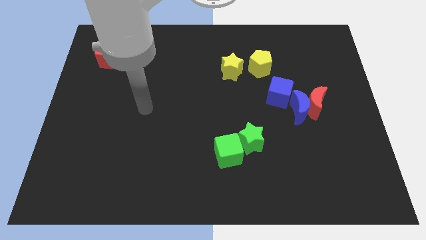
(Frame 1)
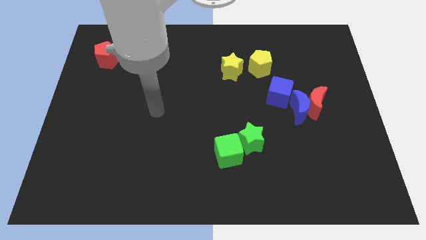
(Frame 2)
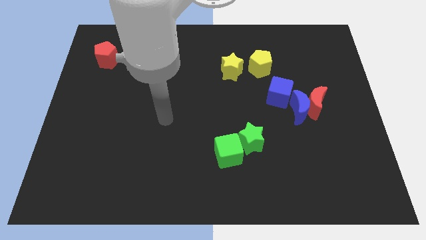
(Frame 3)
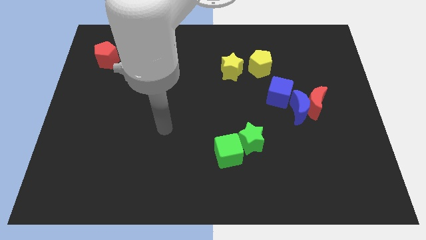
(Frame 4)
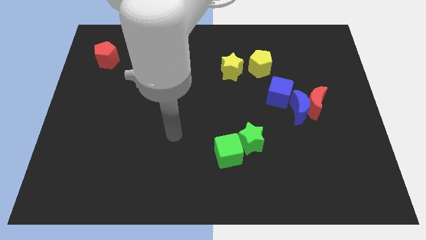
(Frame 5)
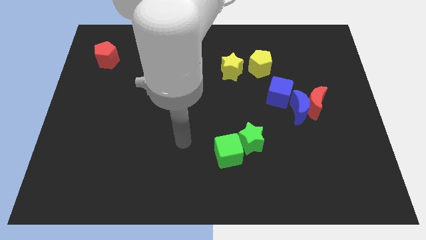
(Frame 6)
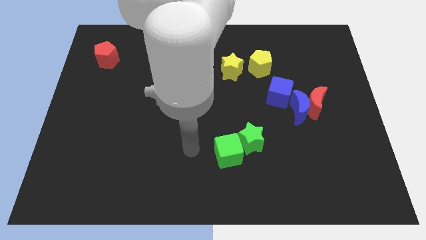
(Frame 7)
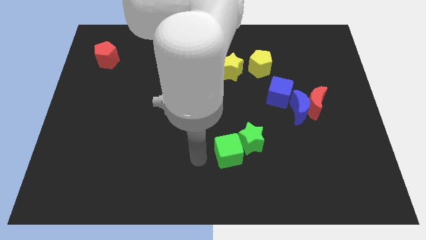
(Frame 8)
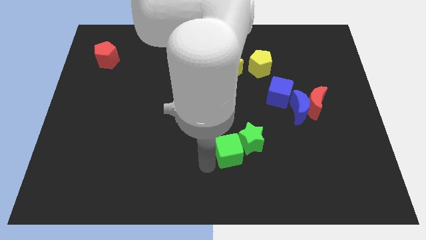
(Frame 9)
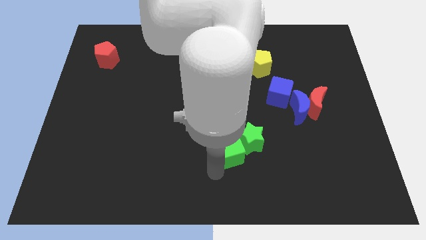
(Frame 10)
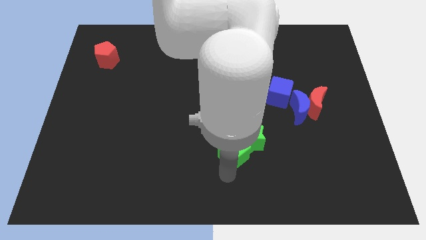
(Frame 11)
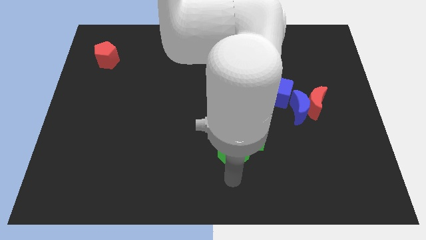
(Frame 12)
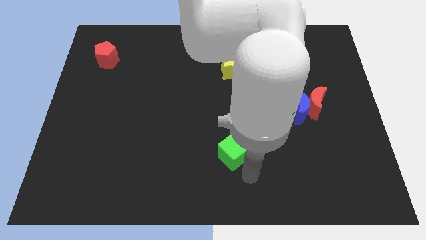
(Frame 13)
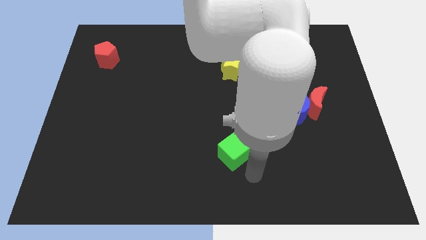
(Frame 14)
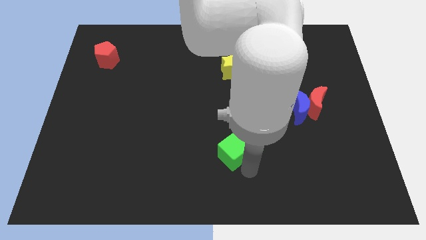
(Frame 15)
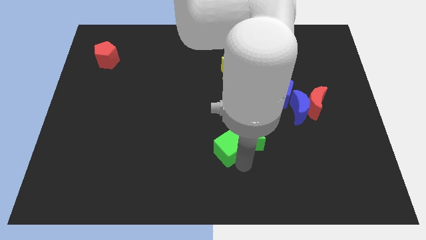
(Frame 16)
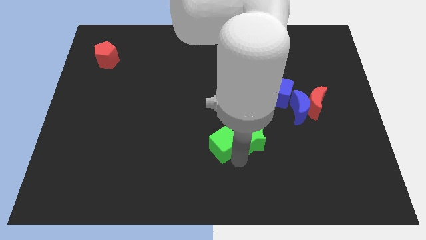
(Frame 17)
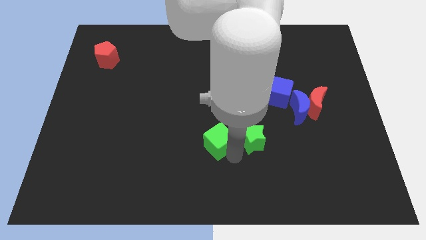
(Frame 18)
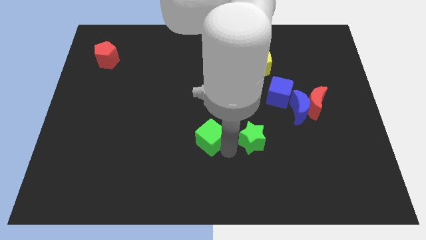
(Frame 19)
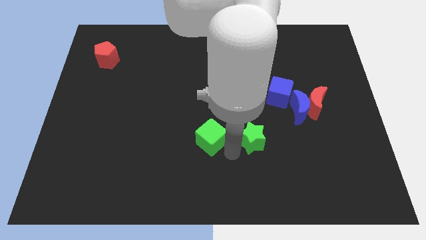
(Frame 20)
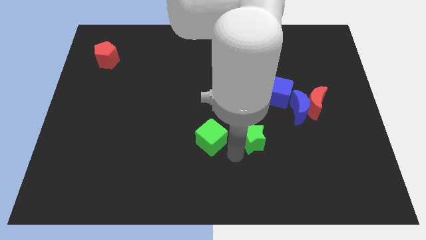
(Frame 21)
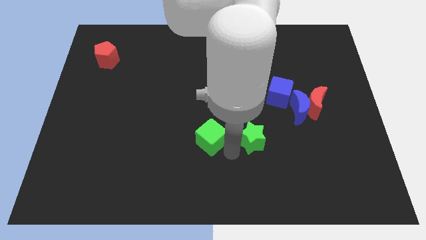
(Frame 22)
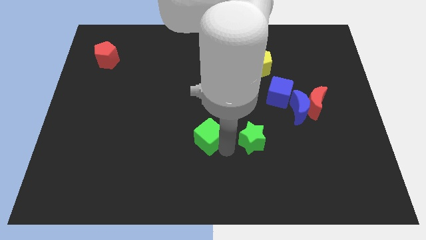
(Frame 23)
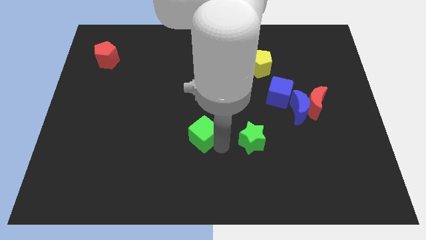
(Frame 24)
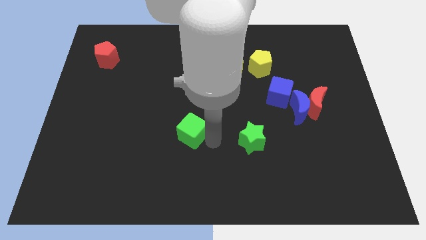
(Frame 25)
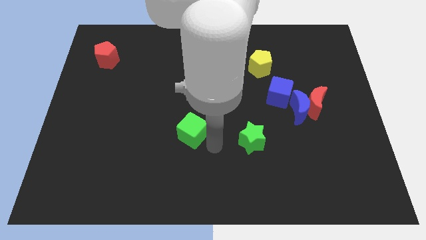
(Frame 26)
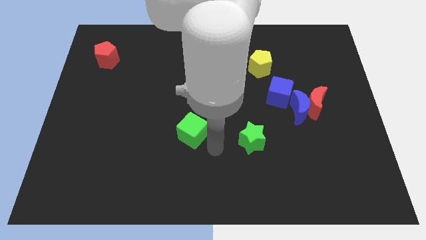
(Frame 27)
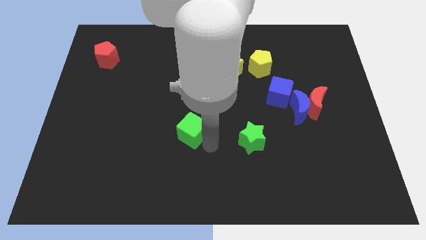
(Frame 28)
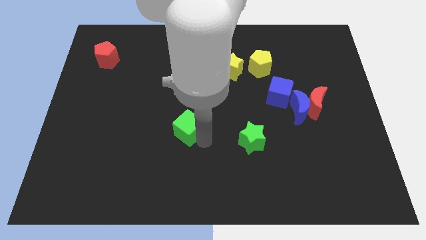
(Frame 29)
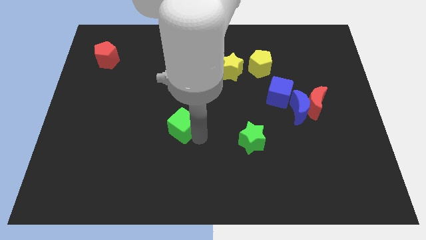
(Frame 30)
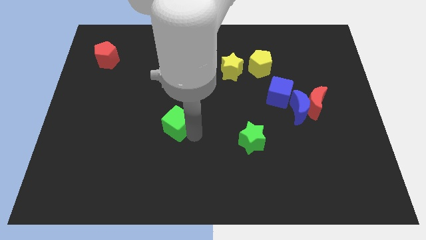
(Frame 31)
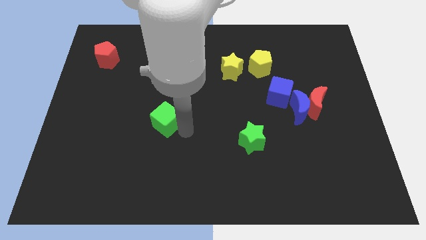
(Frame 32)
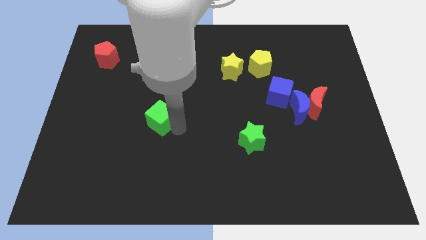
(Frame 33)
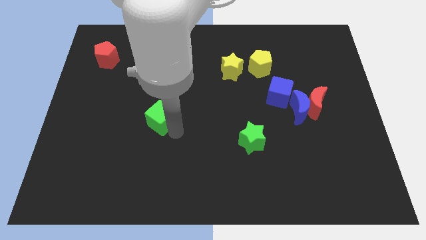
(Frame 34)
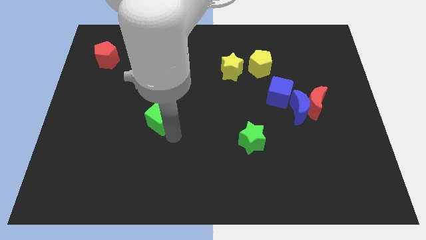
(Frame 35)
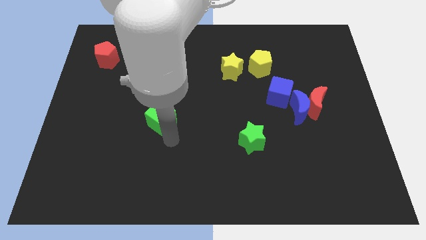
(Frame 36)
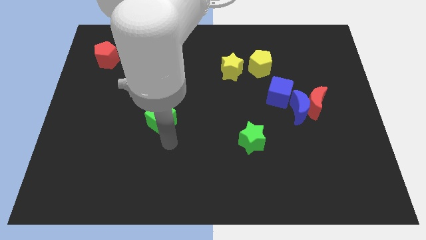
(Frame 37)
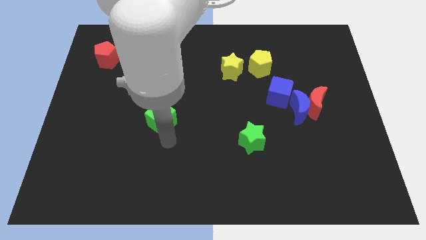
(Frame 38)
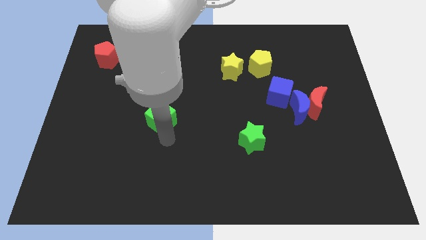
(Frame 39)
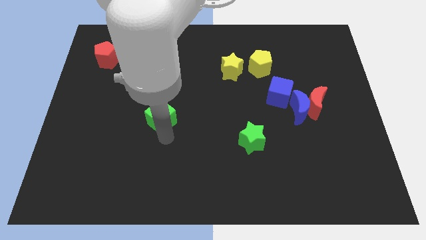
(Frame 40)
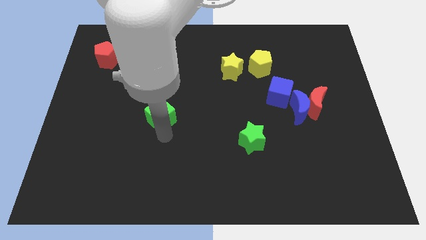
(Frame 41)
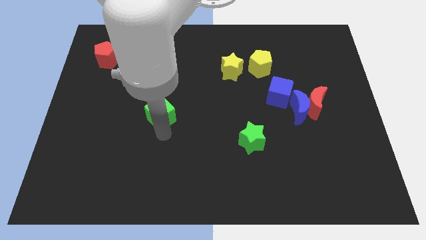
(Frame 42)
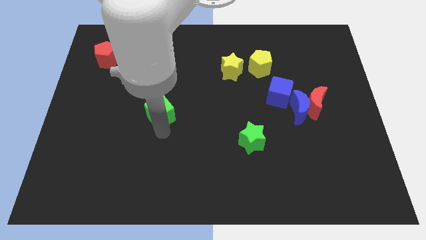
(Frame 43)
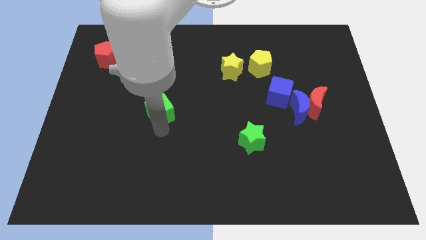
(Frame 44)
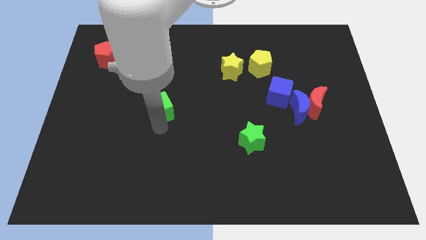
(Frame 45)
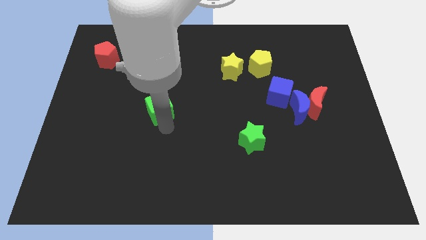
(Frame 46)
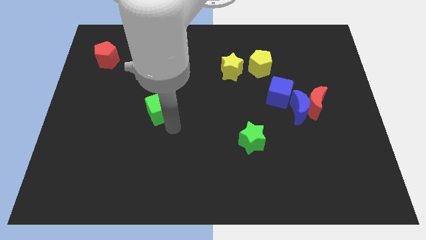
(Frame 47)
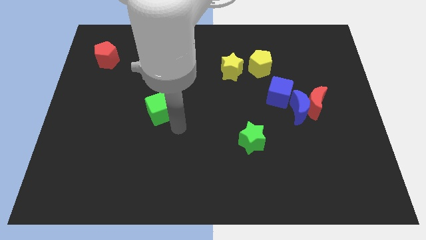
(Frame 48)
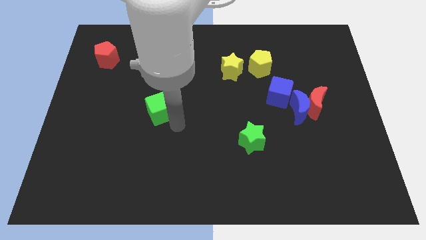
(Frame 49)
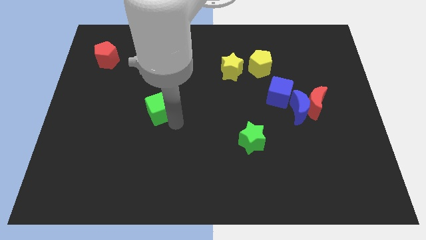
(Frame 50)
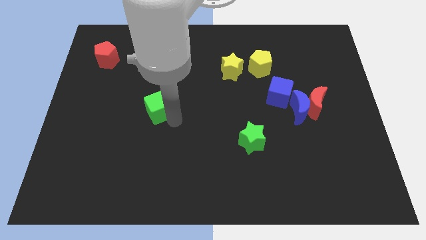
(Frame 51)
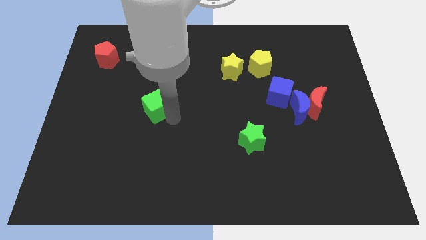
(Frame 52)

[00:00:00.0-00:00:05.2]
move the green cube up and then to the left

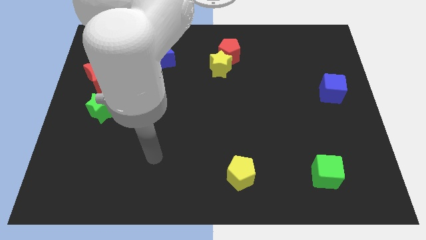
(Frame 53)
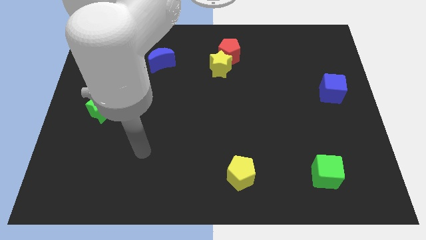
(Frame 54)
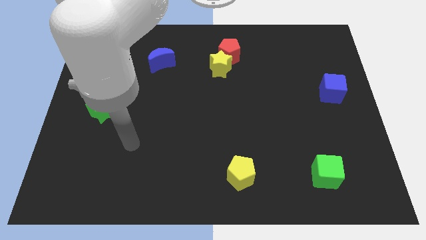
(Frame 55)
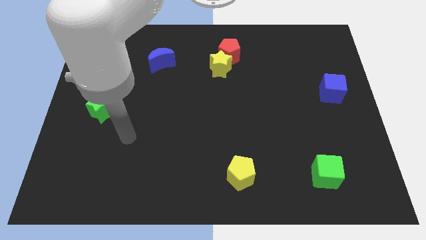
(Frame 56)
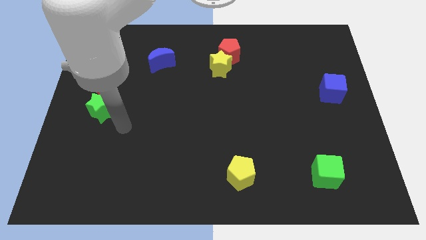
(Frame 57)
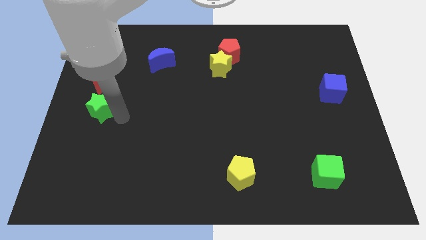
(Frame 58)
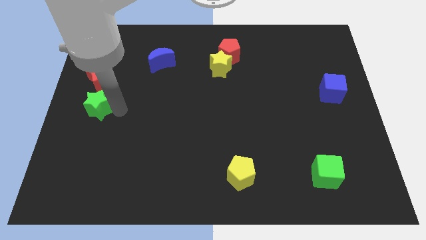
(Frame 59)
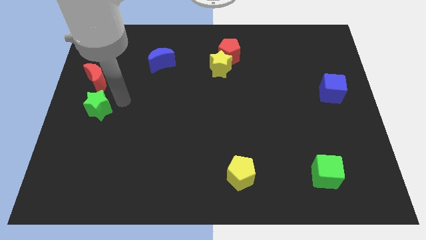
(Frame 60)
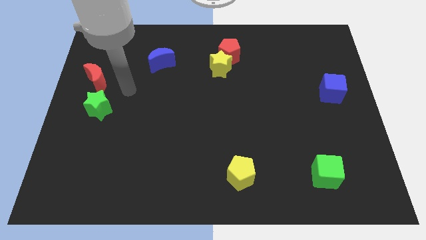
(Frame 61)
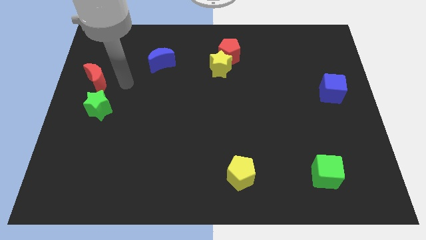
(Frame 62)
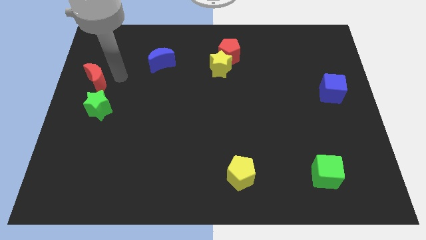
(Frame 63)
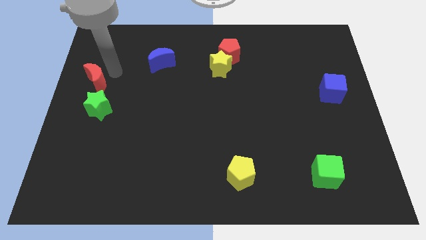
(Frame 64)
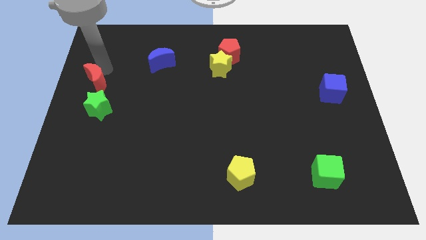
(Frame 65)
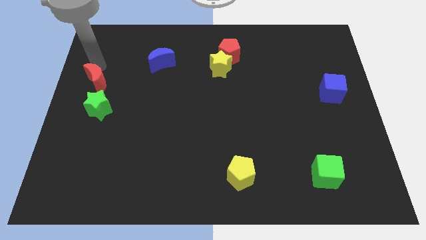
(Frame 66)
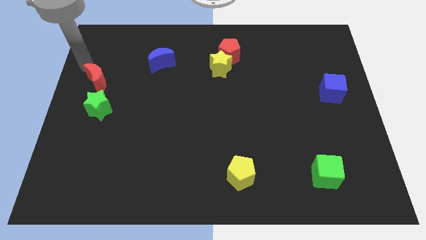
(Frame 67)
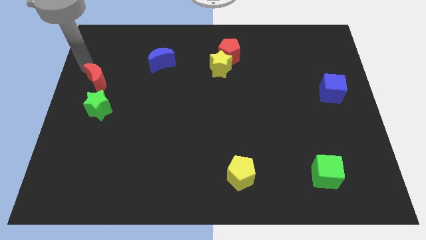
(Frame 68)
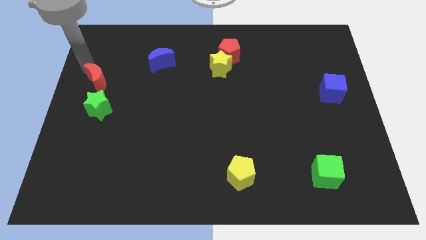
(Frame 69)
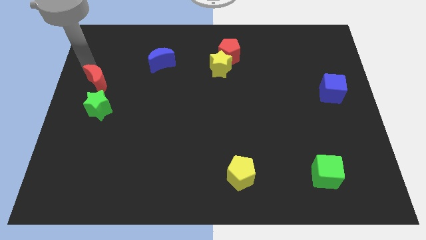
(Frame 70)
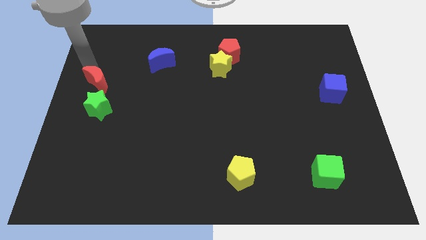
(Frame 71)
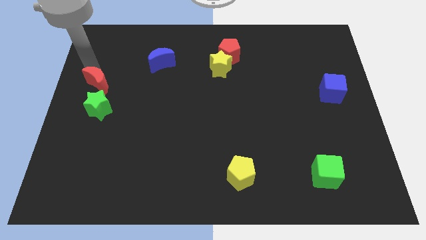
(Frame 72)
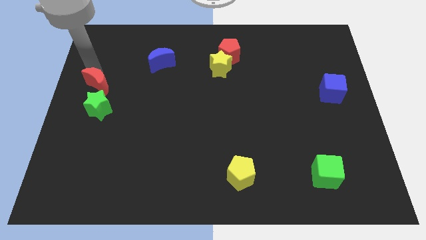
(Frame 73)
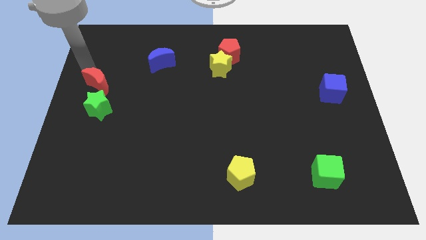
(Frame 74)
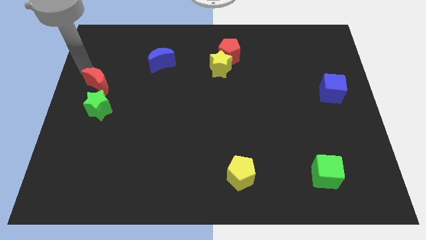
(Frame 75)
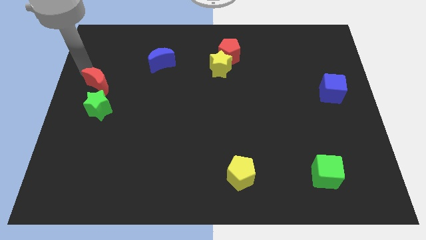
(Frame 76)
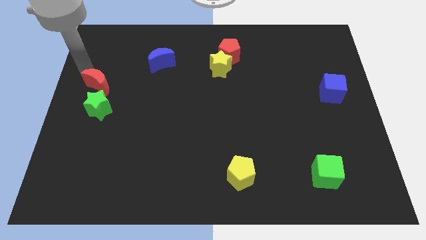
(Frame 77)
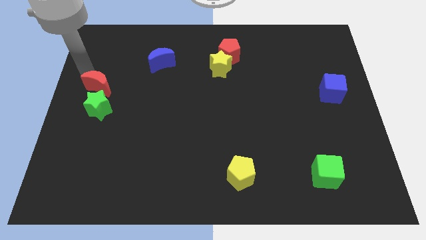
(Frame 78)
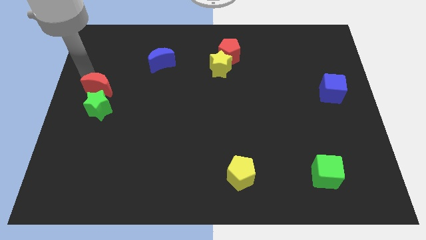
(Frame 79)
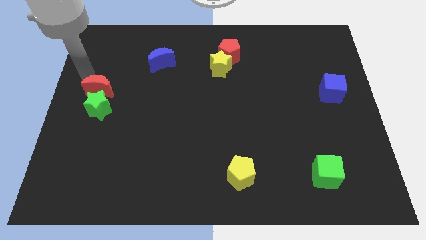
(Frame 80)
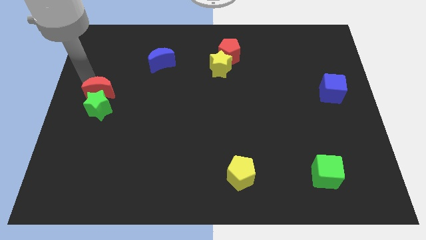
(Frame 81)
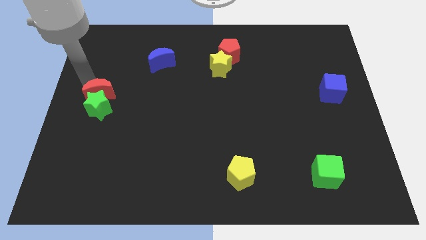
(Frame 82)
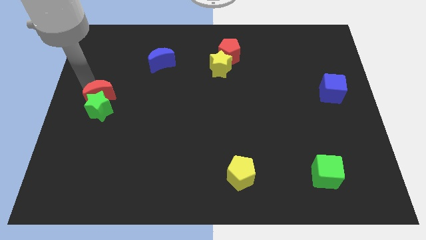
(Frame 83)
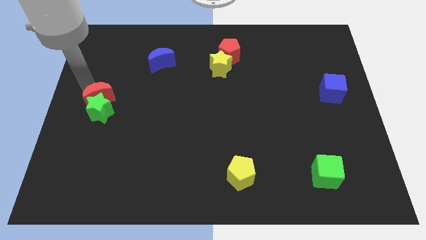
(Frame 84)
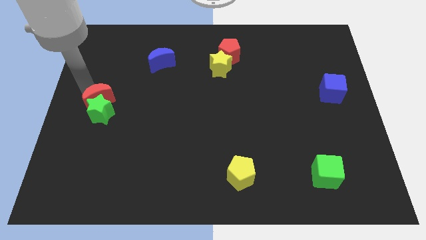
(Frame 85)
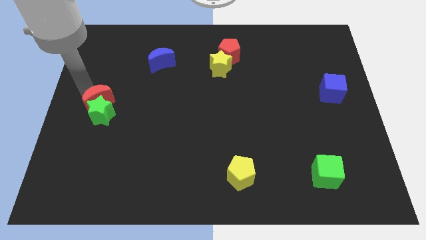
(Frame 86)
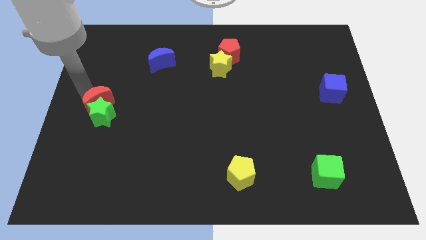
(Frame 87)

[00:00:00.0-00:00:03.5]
move the red moon down a bit
